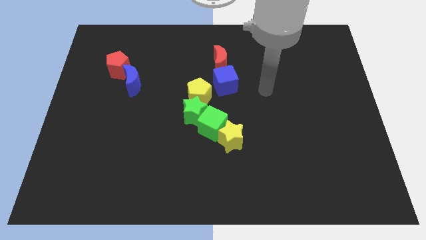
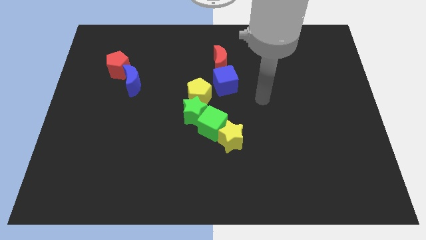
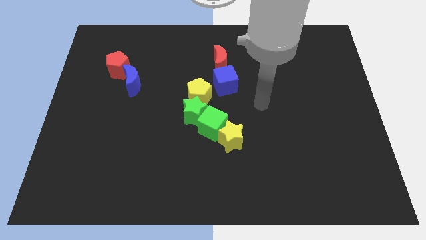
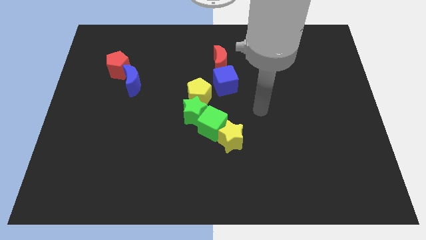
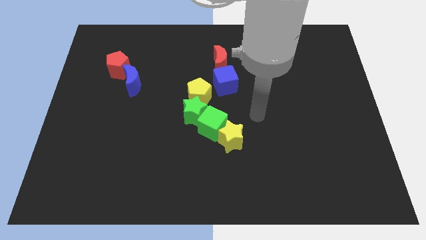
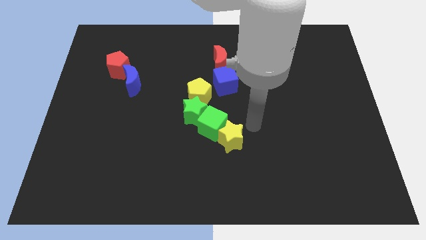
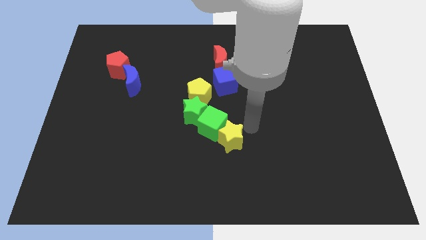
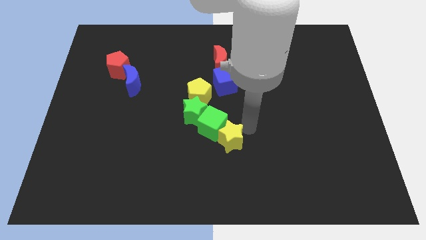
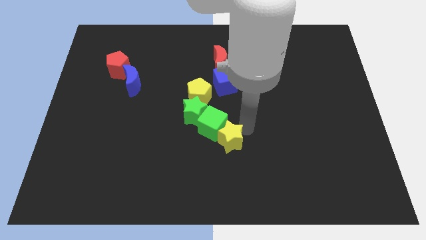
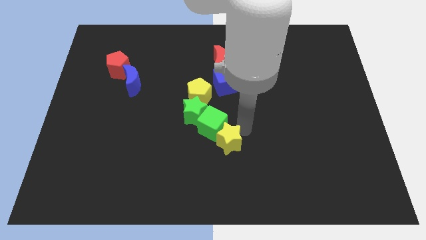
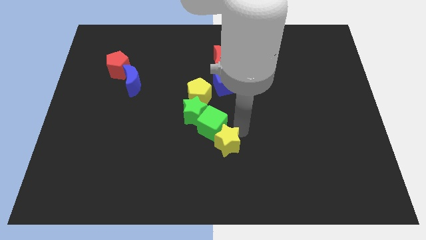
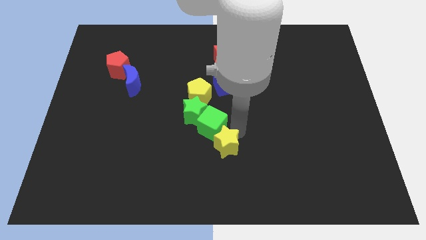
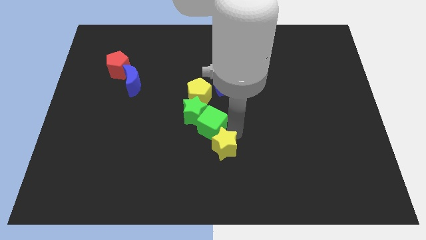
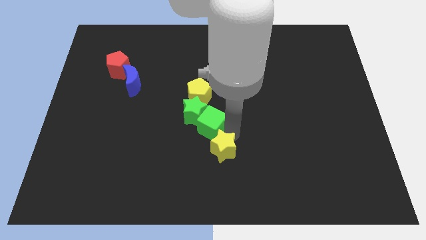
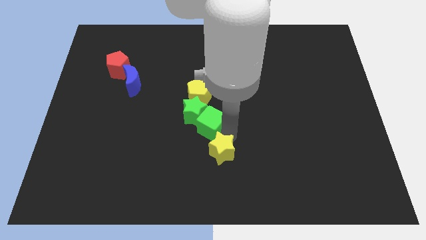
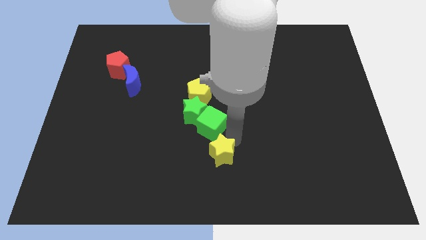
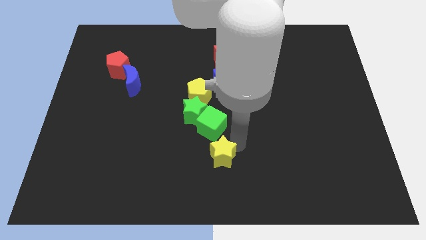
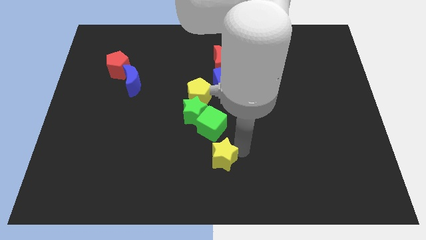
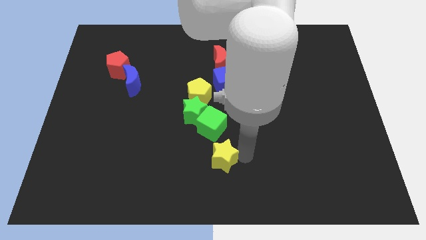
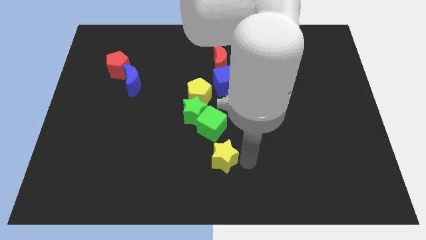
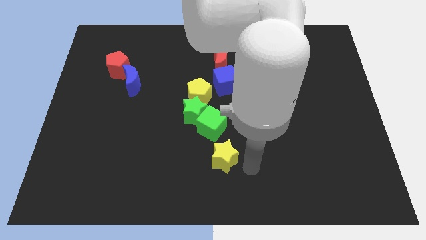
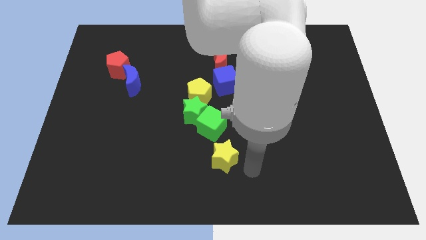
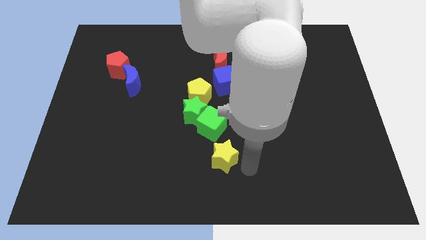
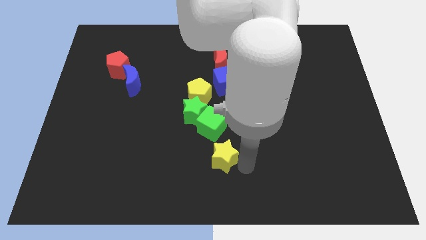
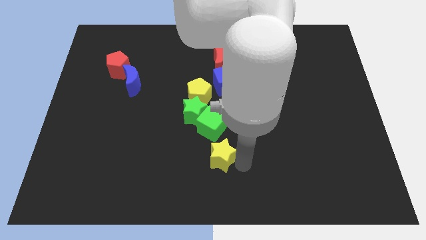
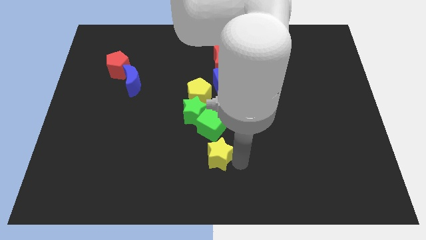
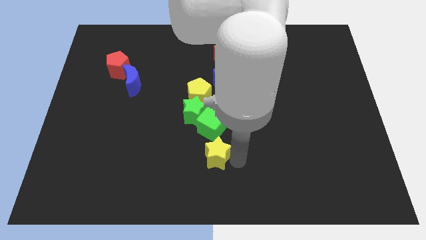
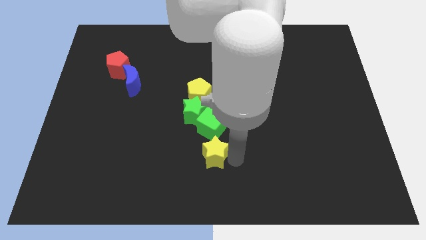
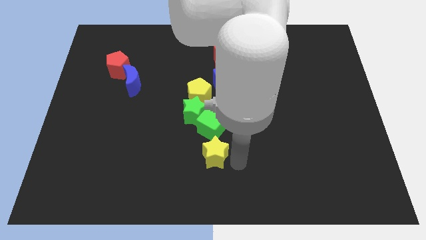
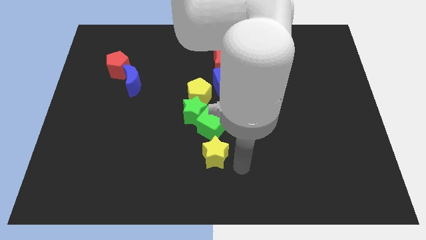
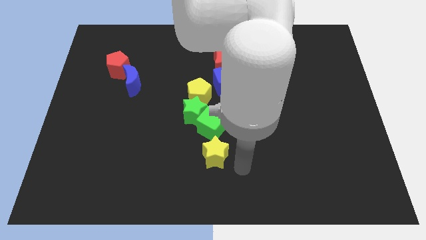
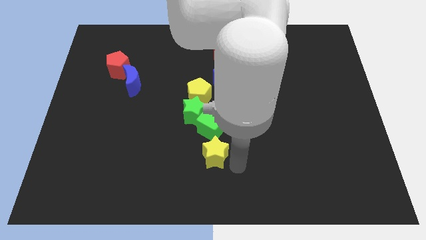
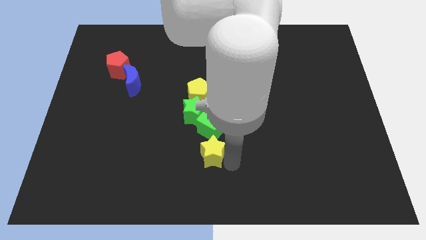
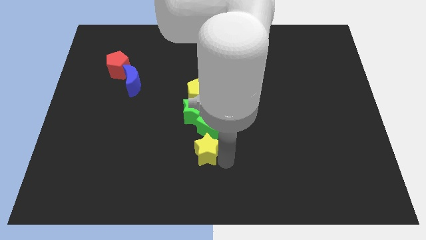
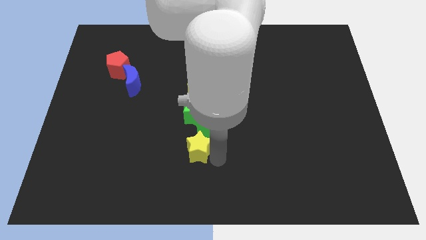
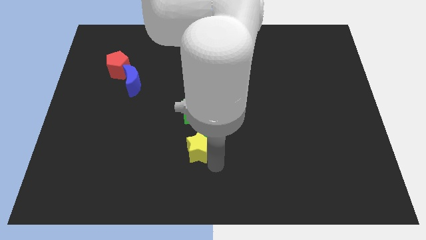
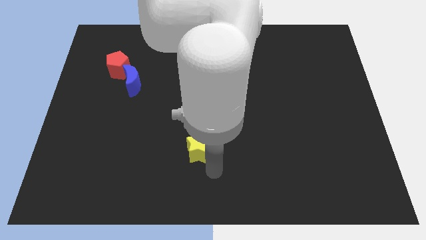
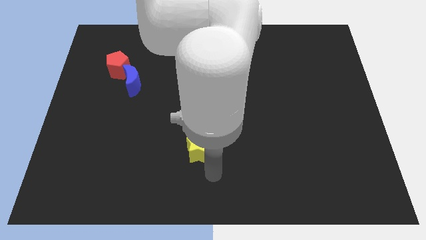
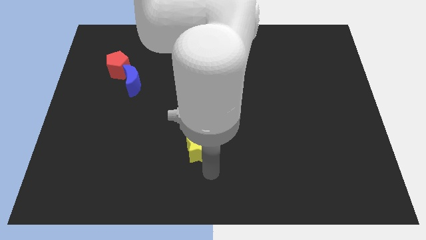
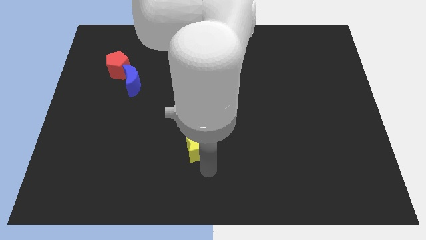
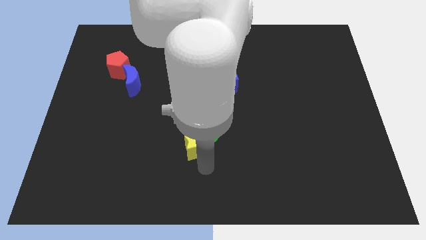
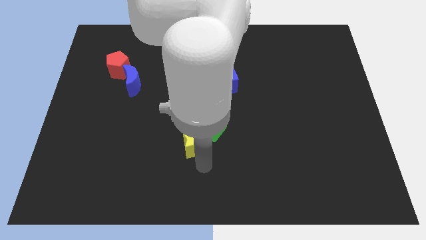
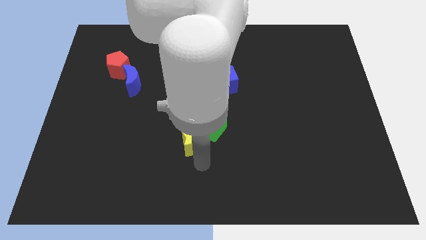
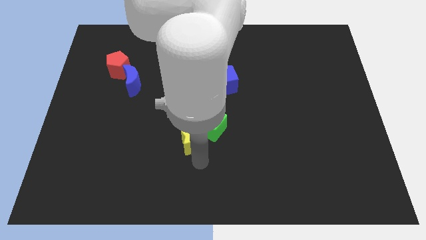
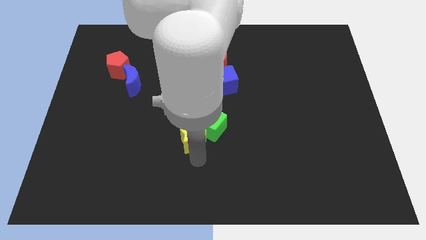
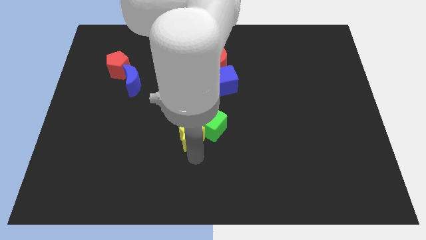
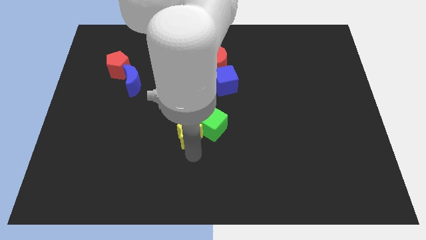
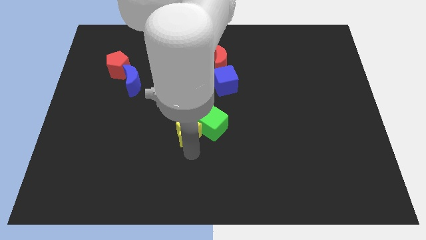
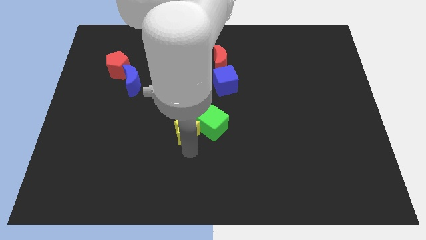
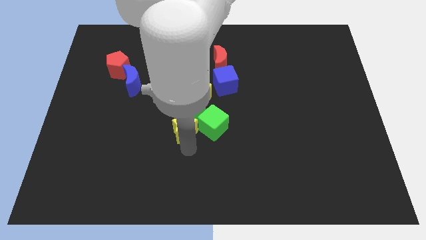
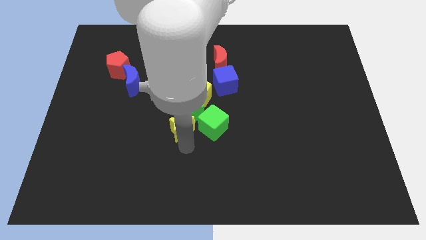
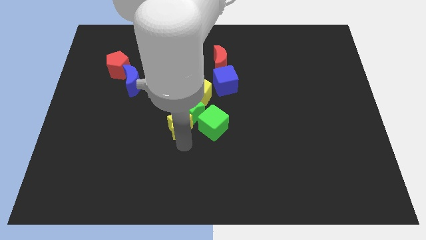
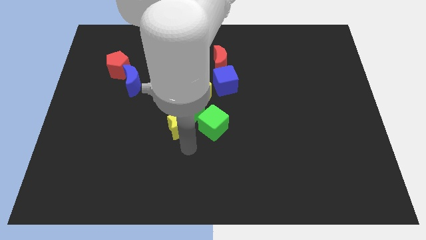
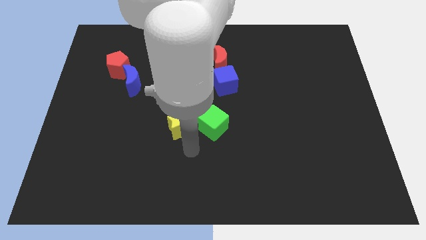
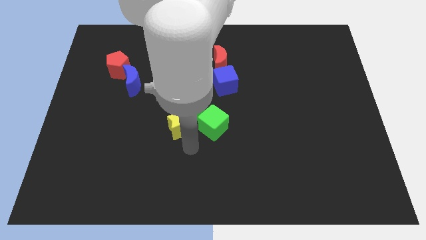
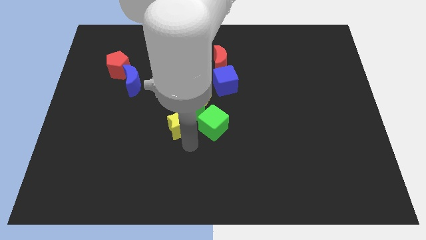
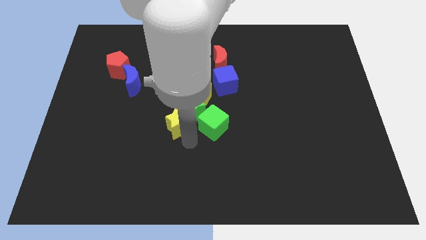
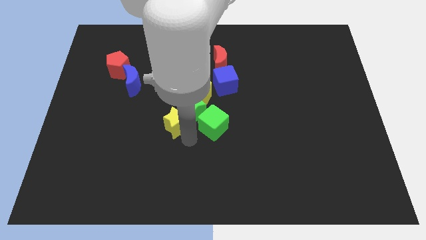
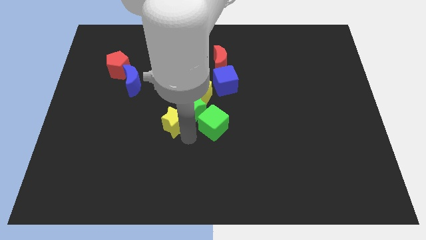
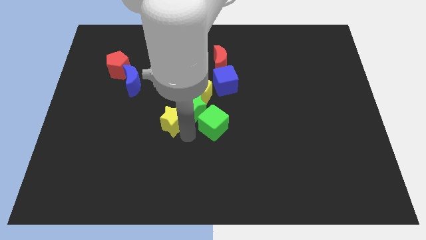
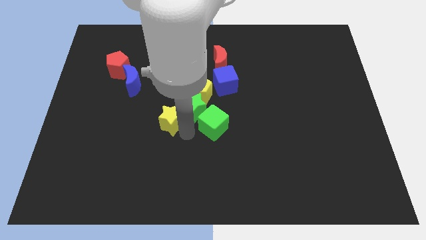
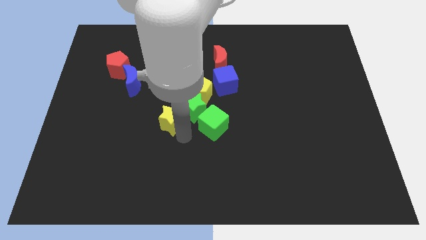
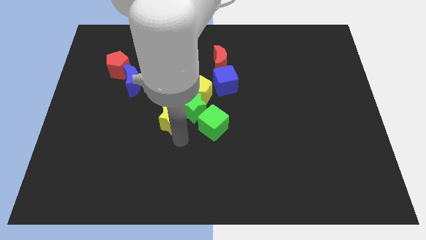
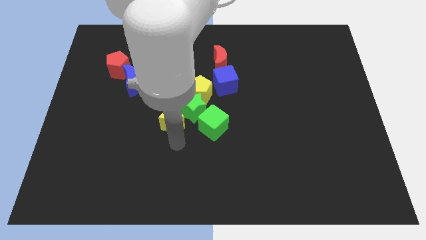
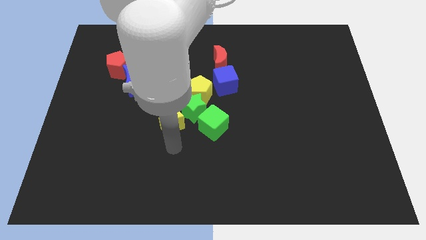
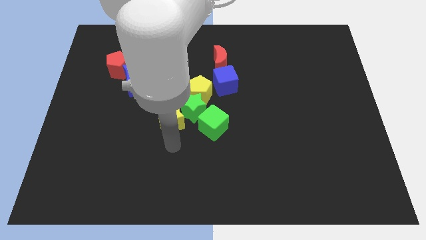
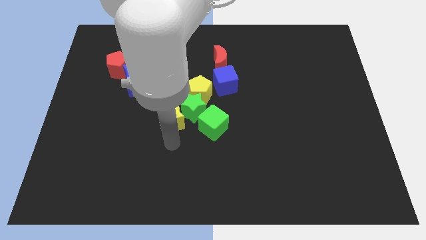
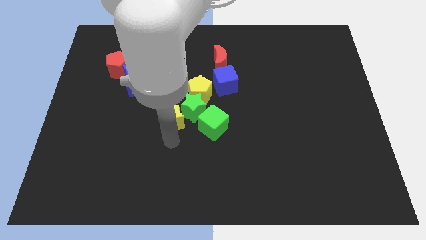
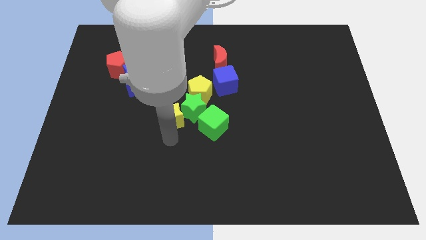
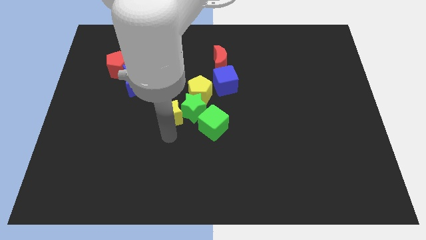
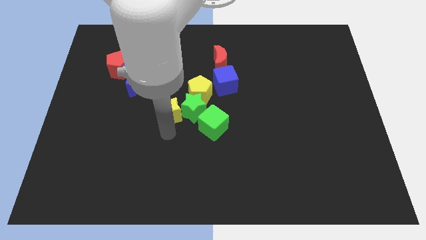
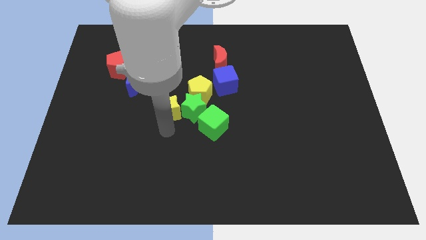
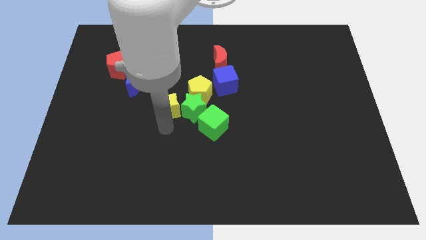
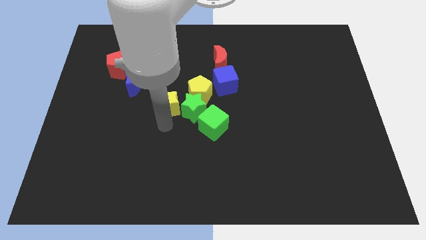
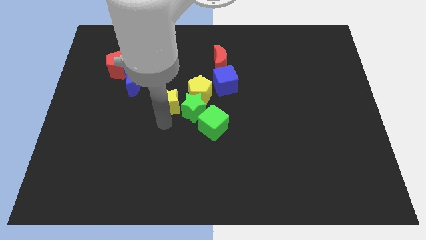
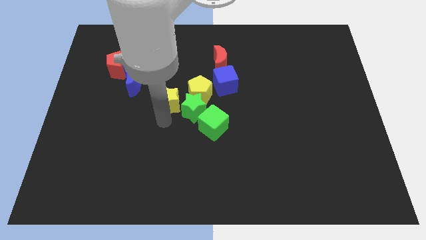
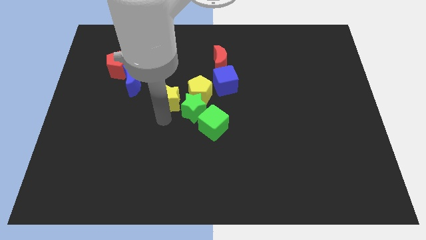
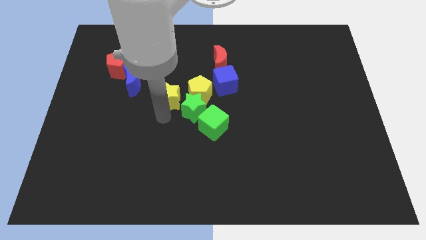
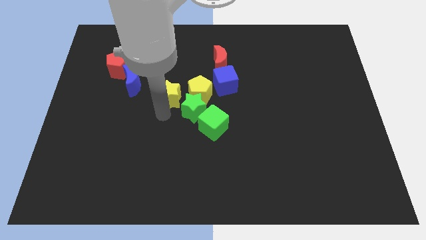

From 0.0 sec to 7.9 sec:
move the yellow star right of the blue moon
